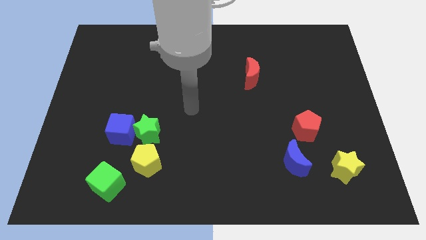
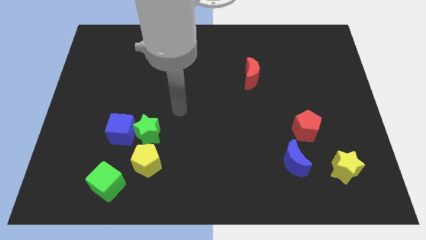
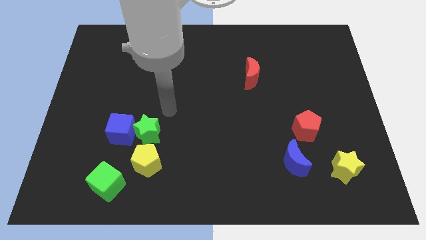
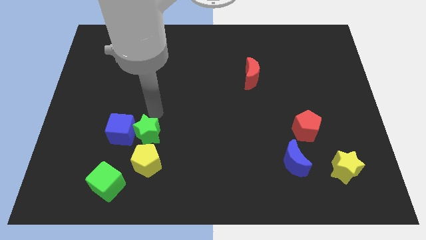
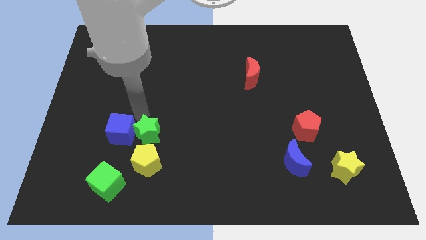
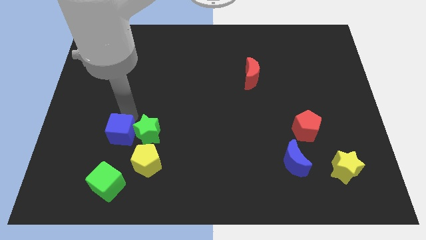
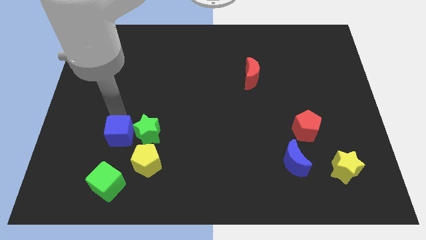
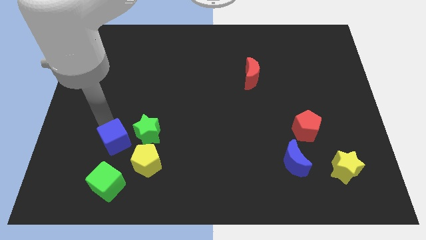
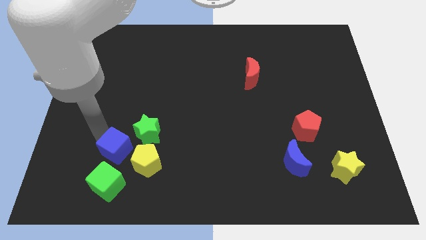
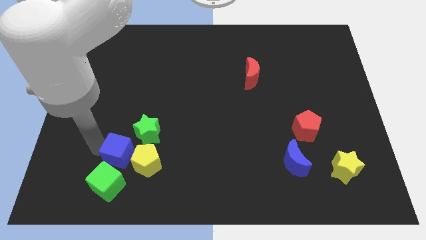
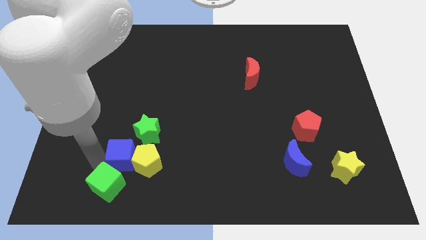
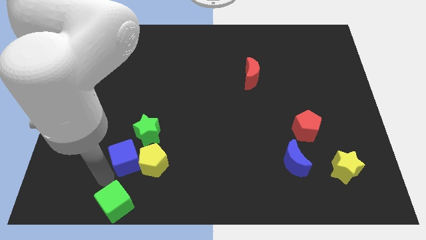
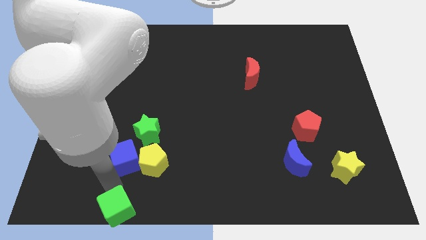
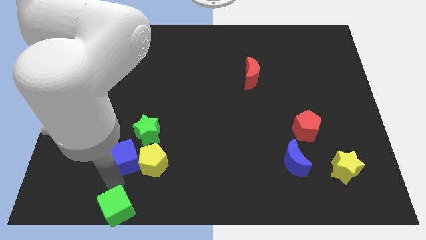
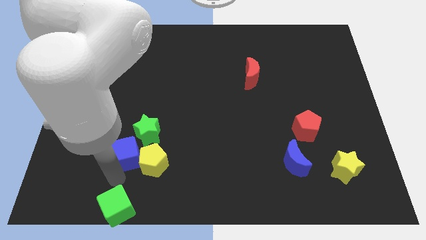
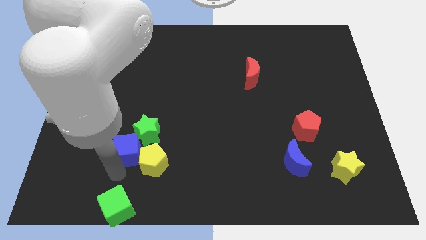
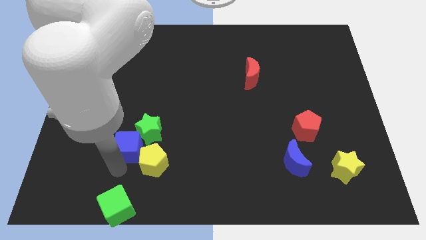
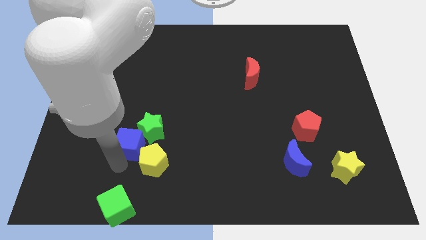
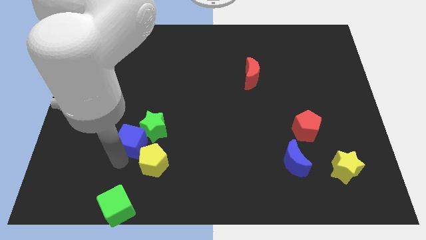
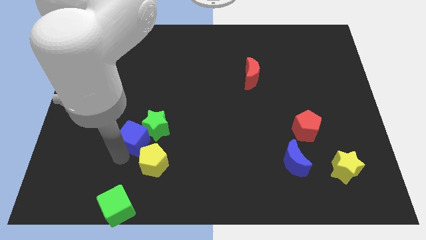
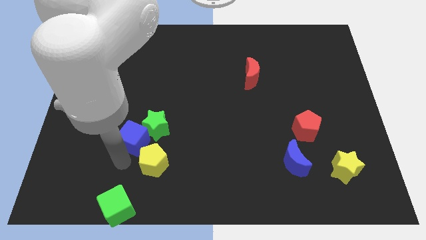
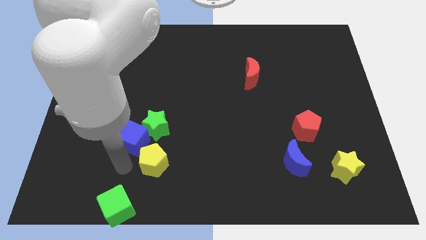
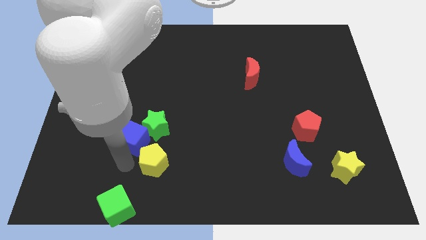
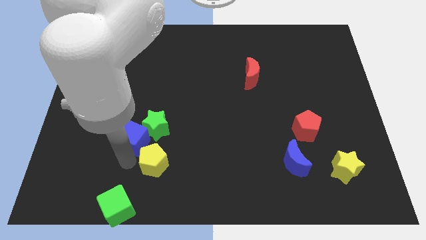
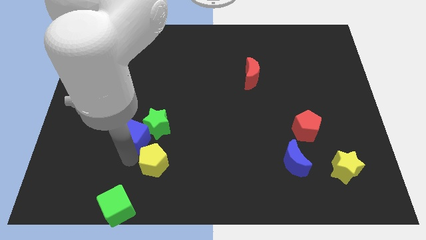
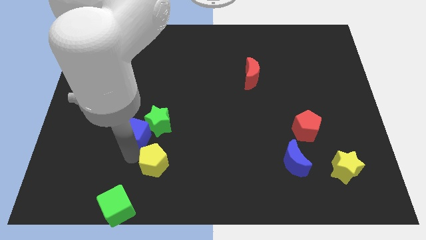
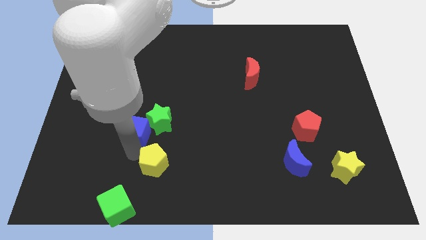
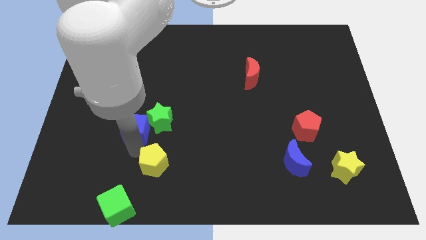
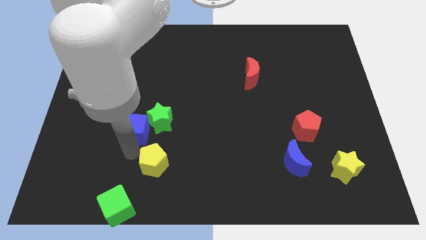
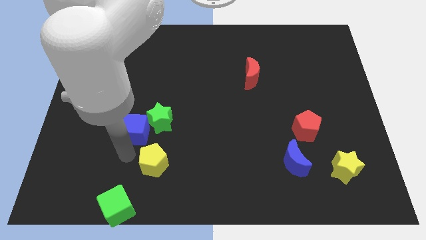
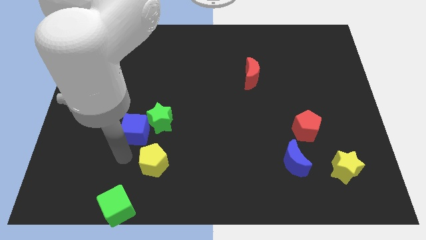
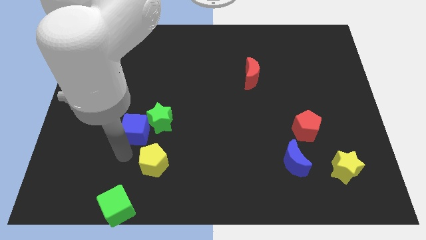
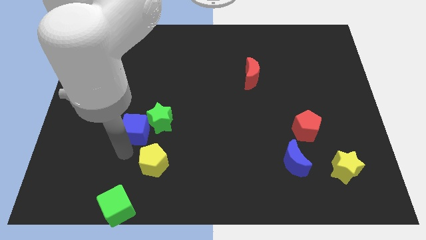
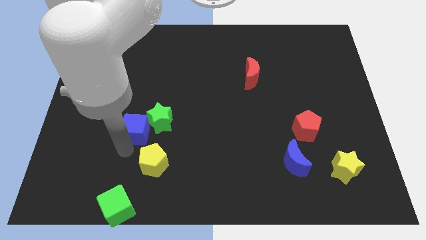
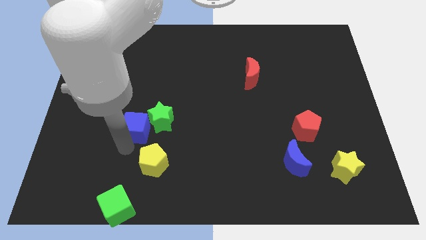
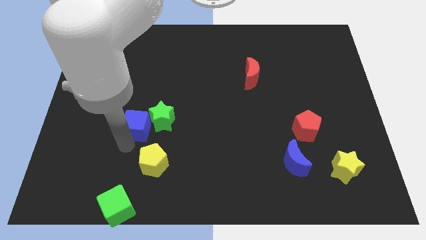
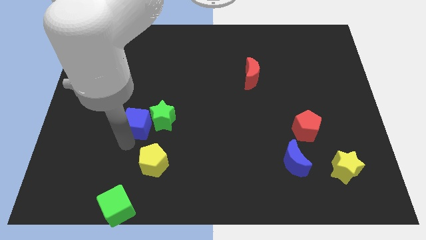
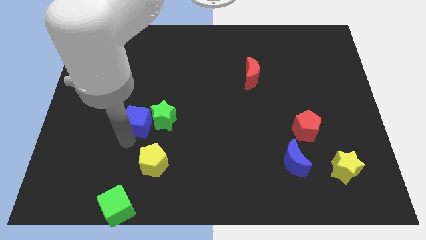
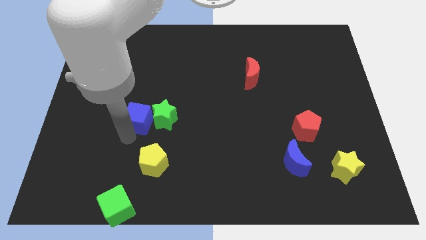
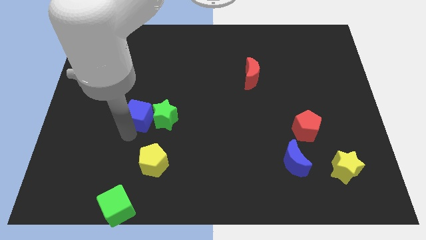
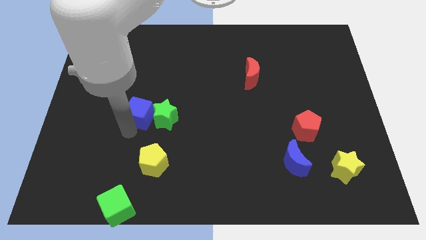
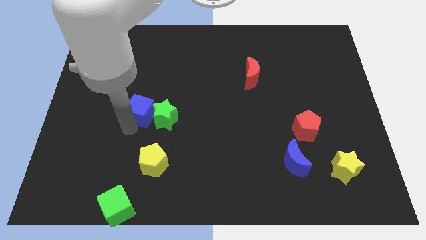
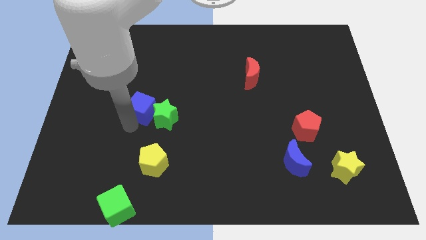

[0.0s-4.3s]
slightly slide the blue cube up and right

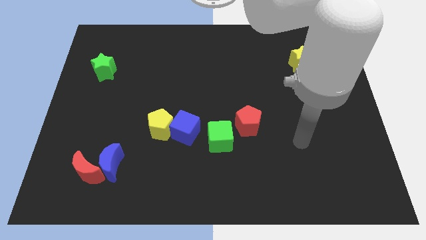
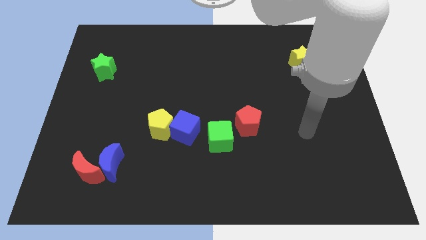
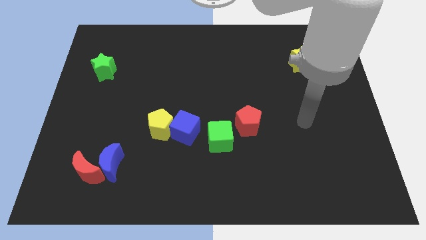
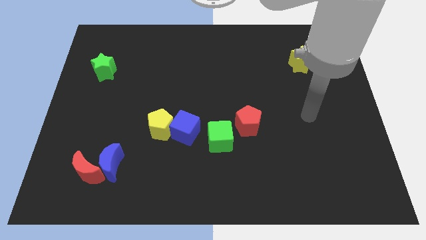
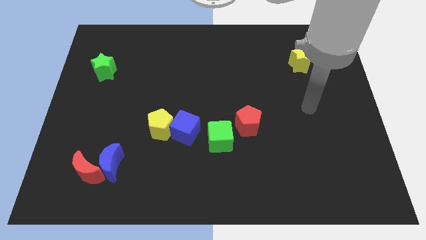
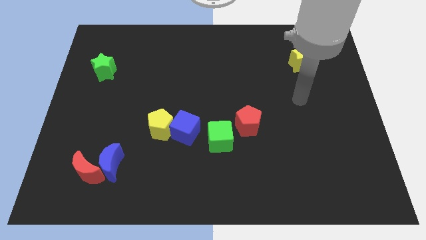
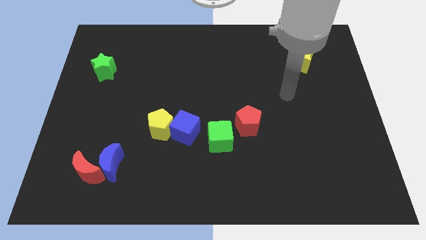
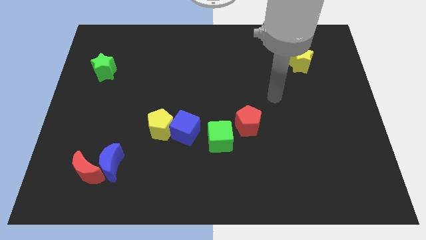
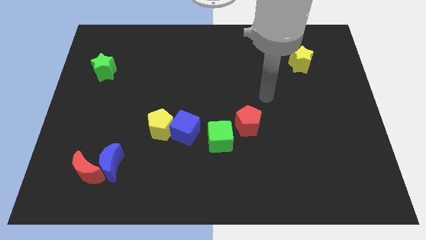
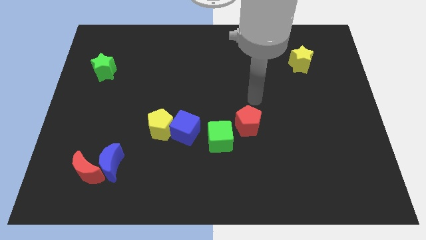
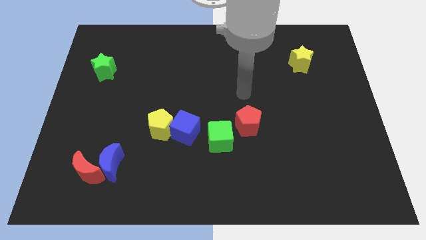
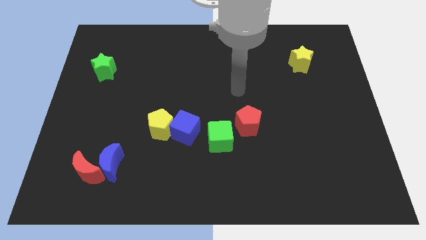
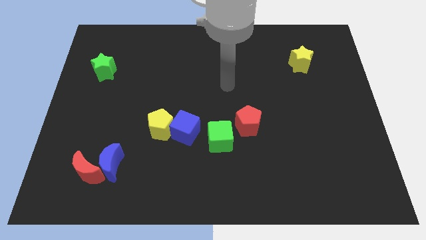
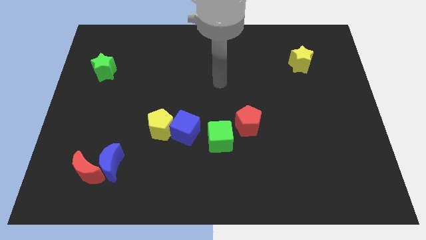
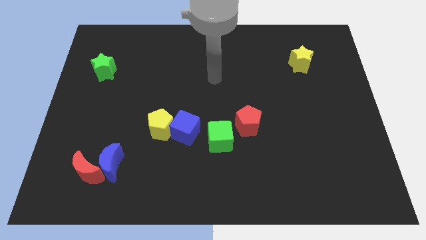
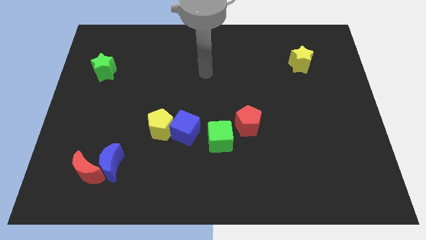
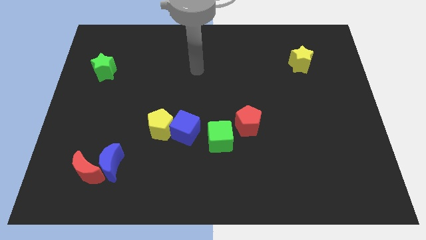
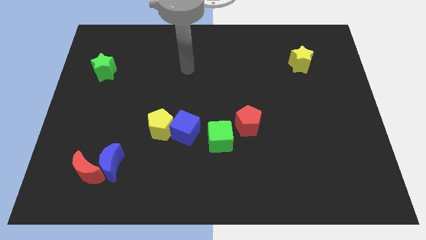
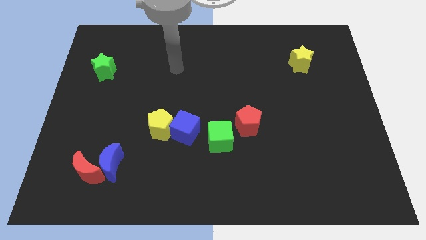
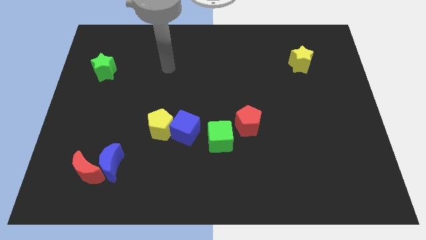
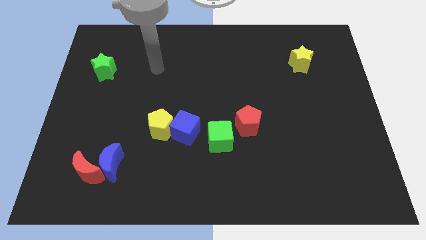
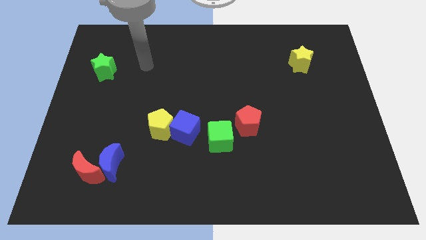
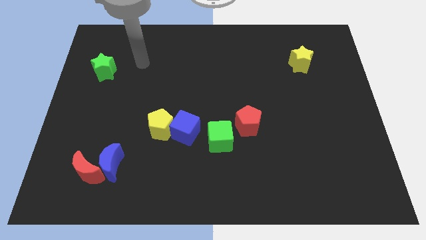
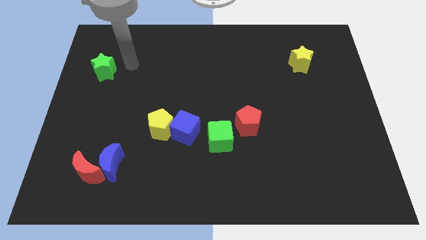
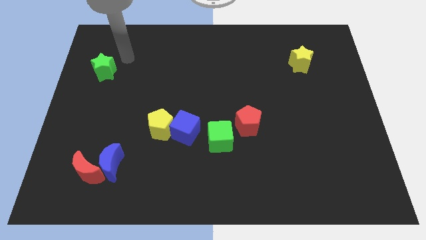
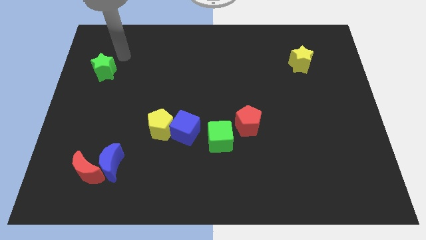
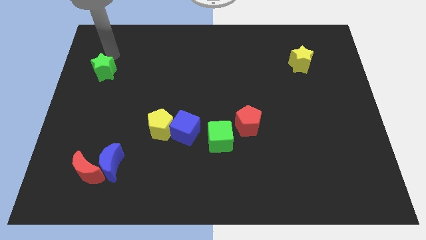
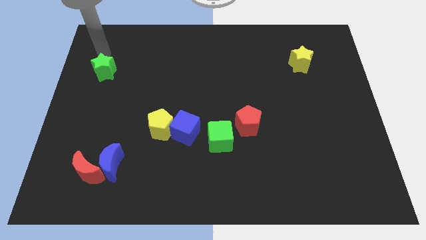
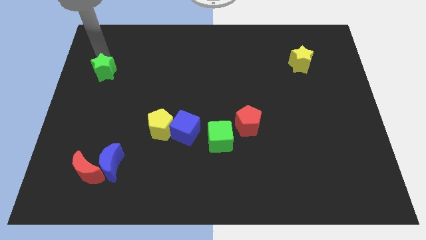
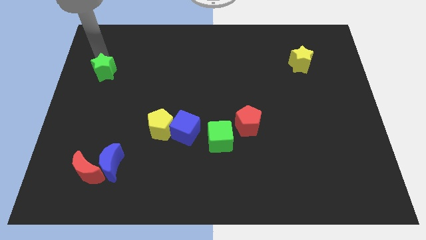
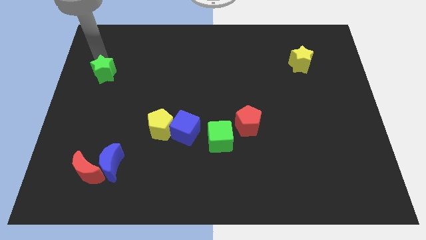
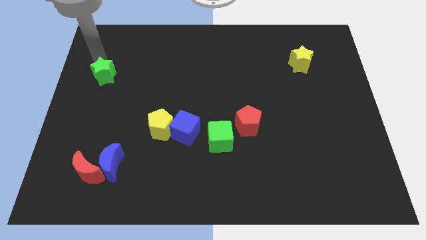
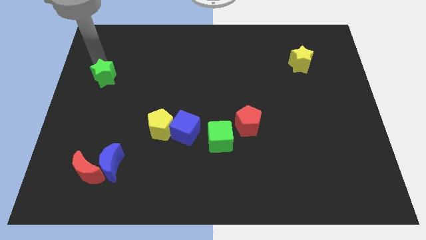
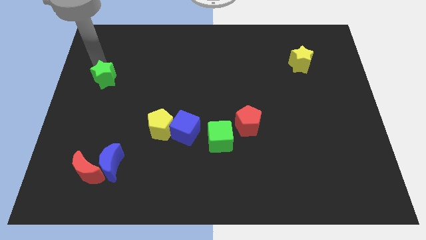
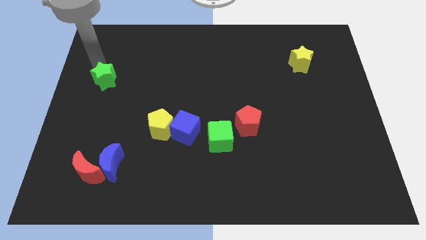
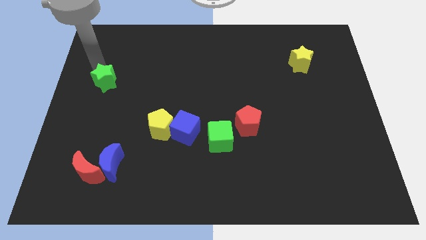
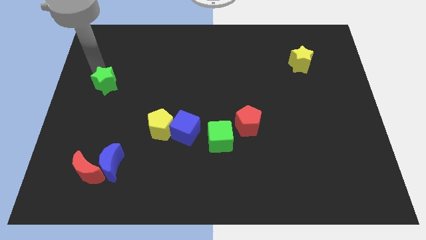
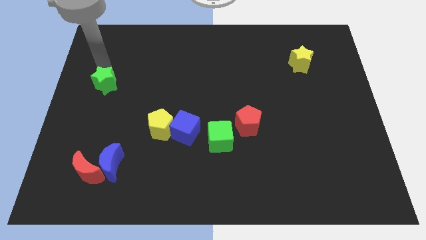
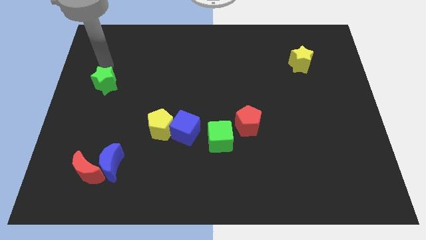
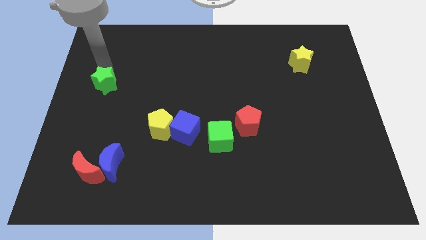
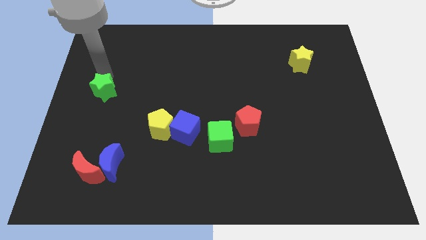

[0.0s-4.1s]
slightly move the green star down
